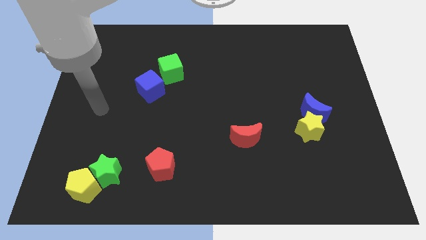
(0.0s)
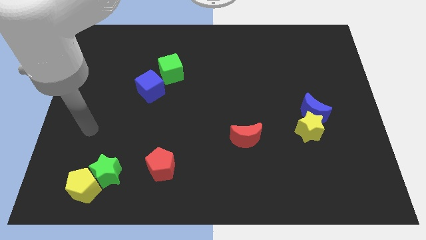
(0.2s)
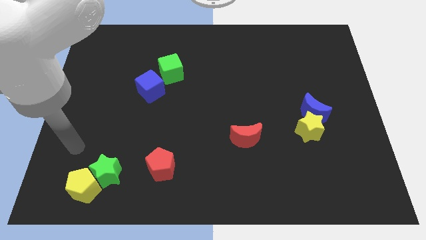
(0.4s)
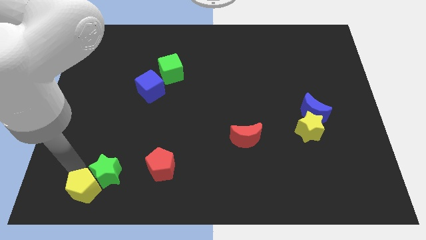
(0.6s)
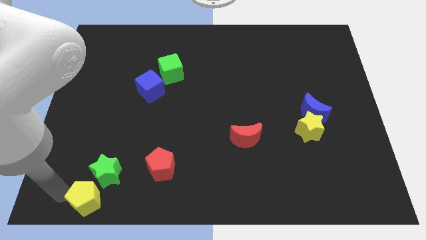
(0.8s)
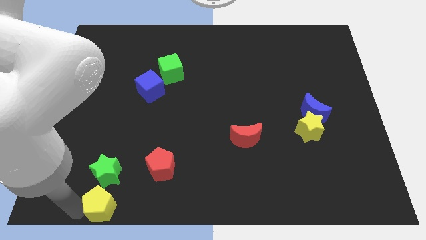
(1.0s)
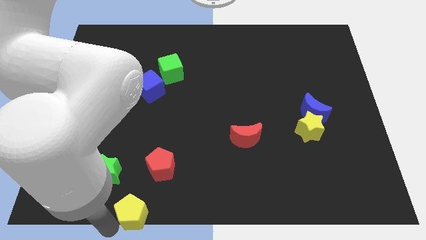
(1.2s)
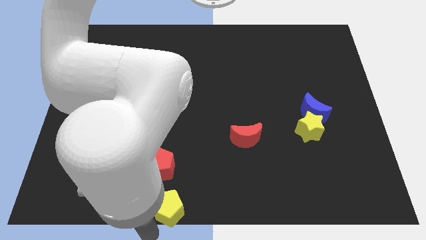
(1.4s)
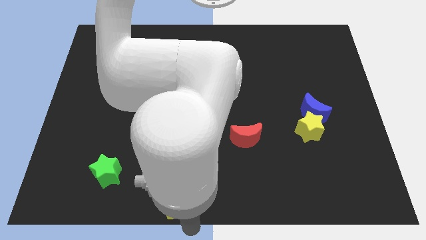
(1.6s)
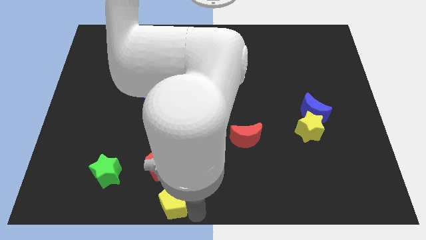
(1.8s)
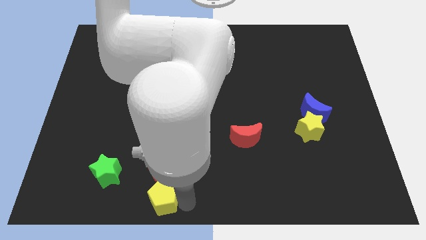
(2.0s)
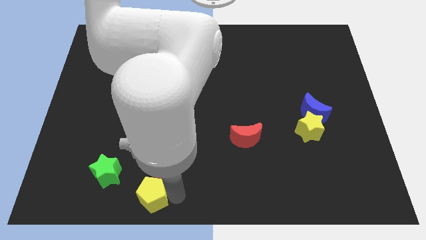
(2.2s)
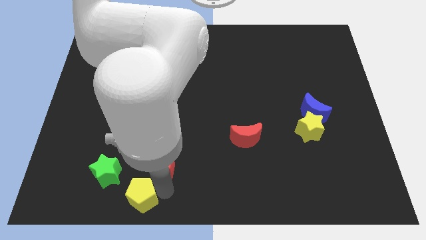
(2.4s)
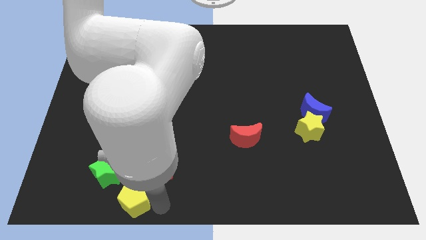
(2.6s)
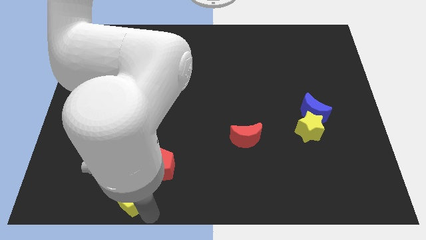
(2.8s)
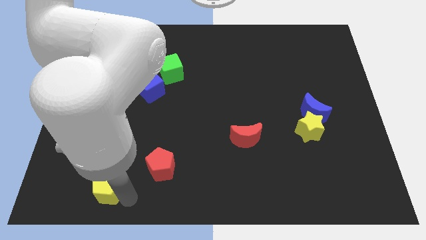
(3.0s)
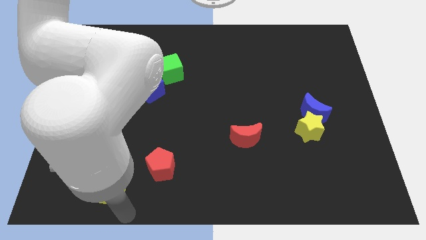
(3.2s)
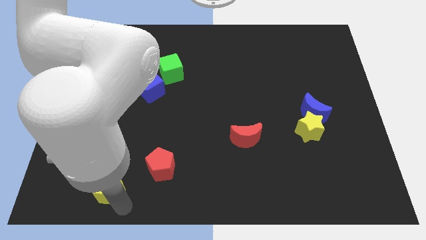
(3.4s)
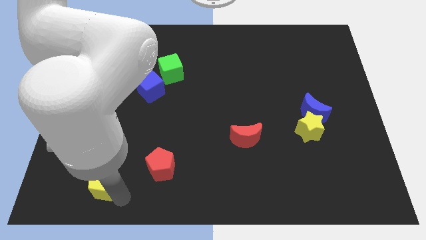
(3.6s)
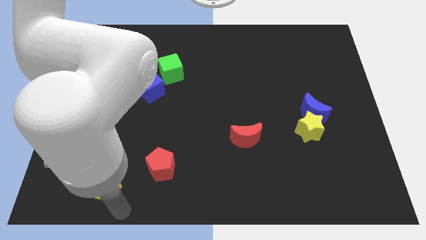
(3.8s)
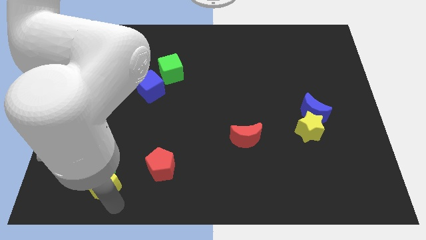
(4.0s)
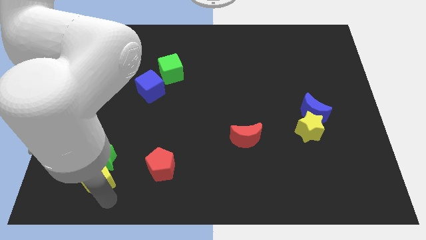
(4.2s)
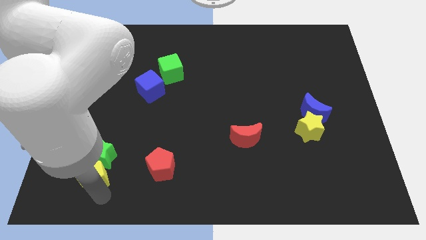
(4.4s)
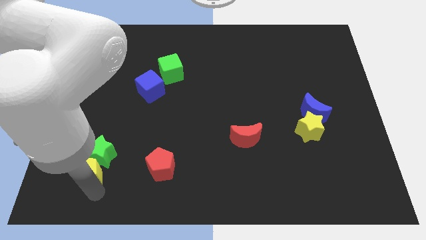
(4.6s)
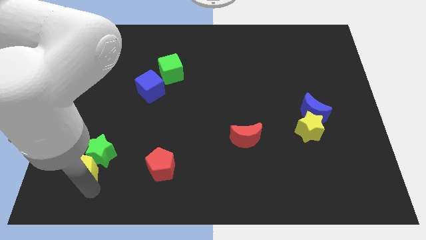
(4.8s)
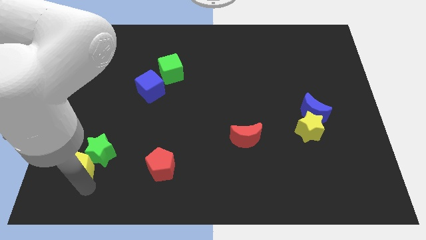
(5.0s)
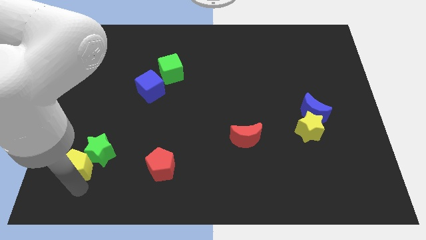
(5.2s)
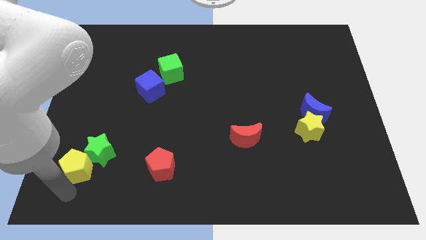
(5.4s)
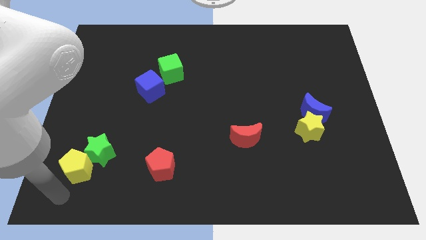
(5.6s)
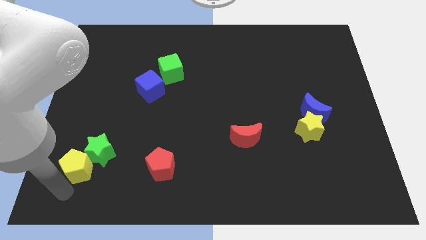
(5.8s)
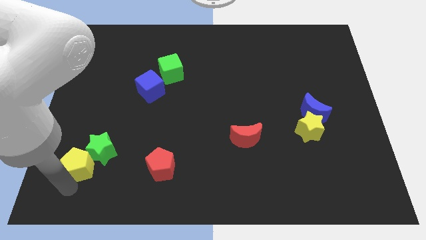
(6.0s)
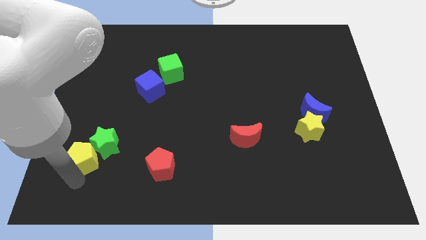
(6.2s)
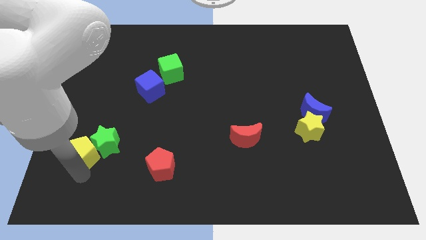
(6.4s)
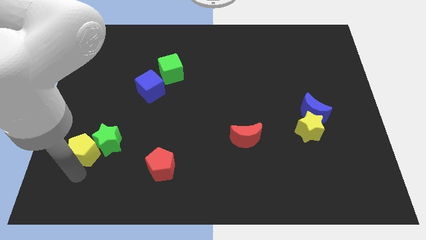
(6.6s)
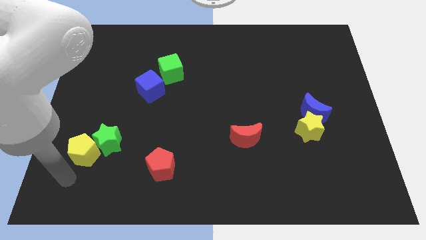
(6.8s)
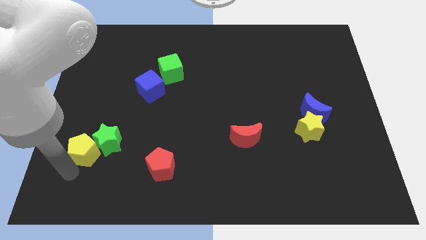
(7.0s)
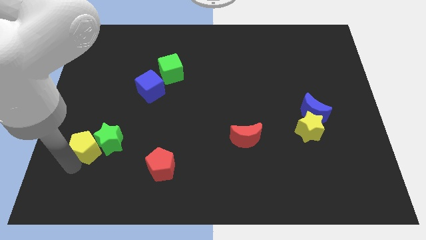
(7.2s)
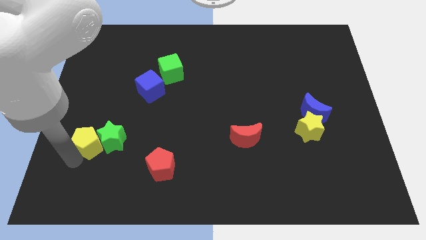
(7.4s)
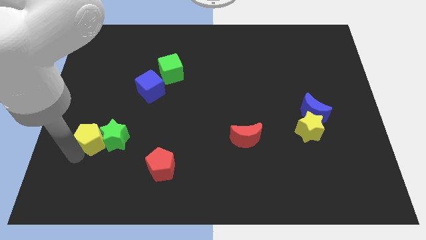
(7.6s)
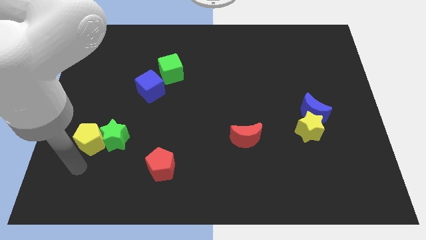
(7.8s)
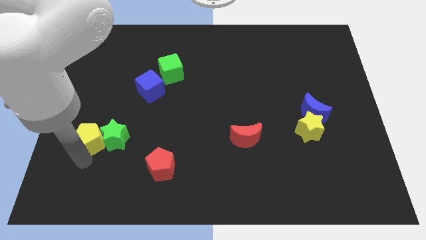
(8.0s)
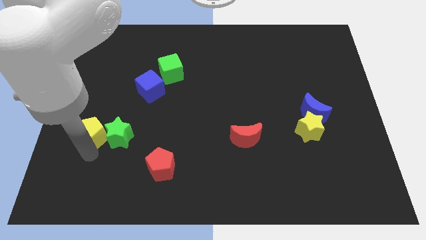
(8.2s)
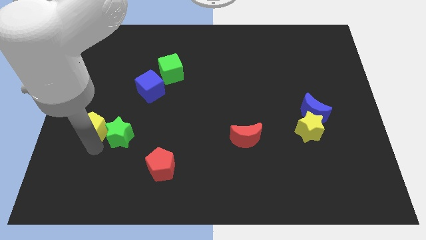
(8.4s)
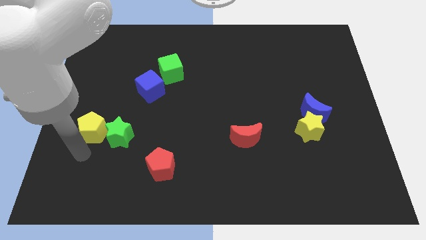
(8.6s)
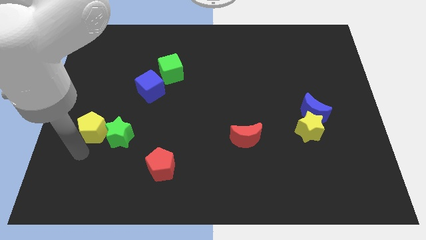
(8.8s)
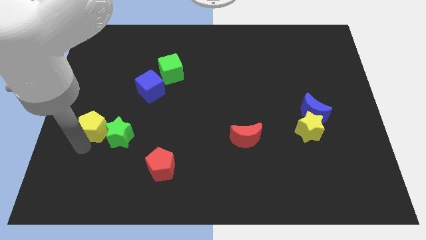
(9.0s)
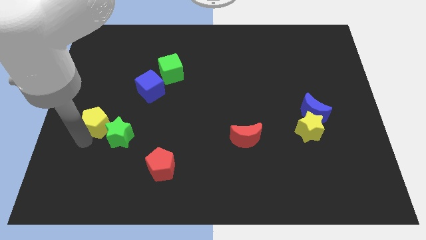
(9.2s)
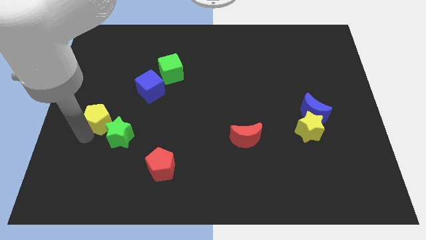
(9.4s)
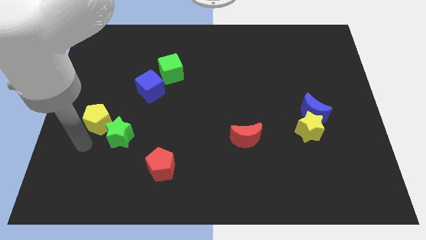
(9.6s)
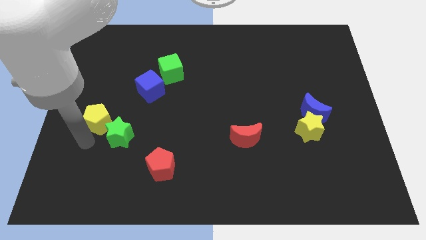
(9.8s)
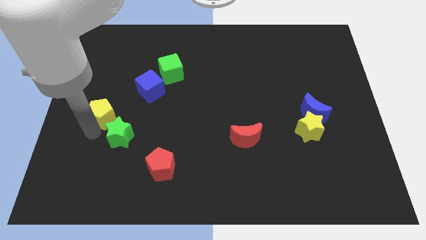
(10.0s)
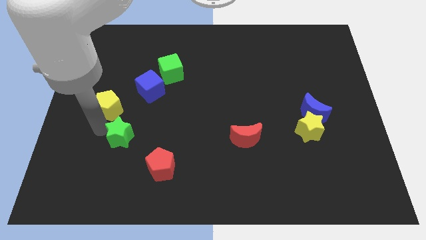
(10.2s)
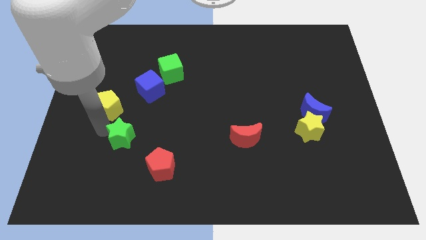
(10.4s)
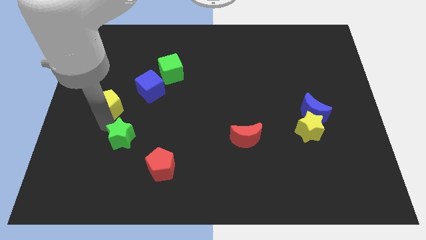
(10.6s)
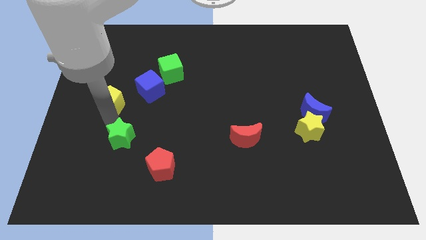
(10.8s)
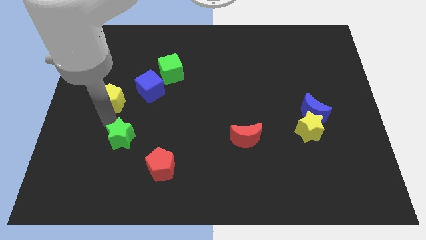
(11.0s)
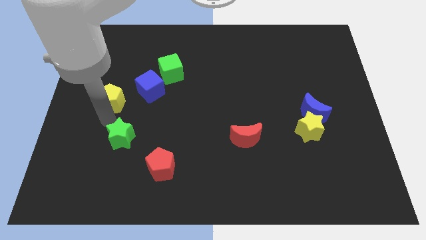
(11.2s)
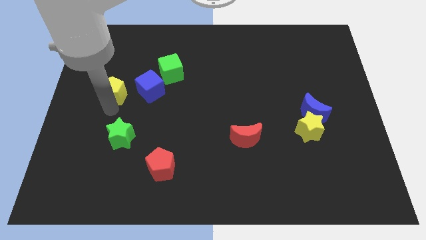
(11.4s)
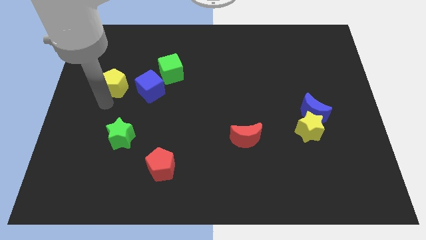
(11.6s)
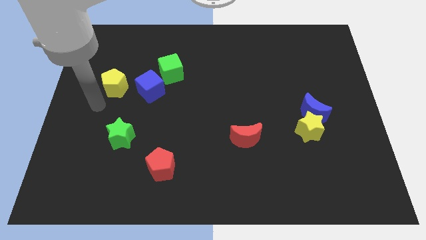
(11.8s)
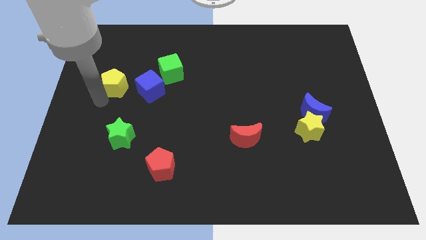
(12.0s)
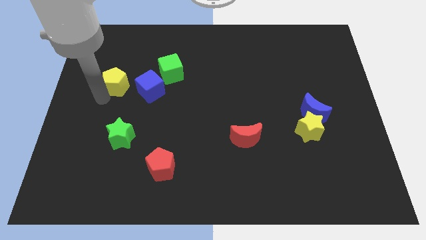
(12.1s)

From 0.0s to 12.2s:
put the yellow pentagon to the left of the green cube
